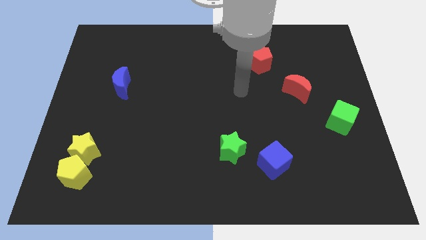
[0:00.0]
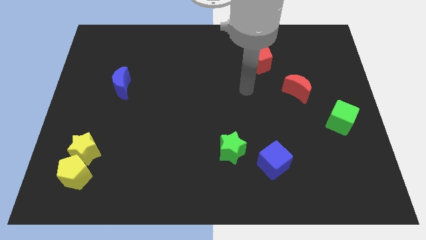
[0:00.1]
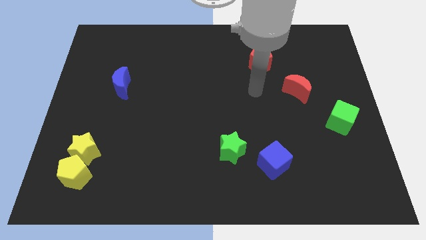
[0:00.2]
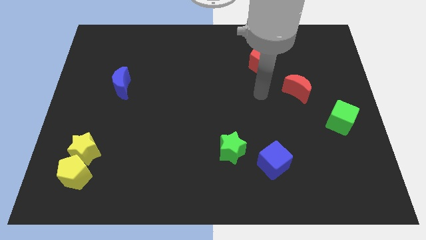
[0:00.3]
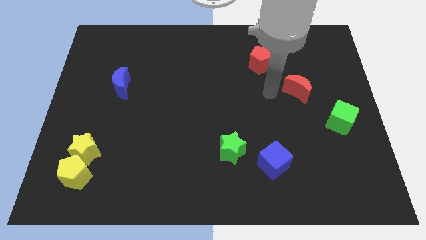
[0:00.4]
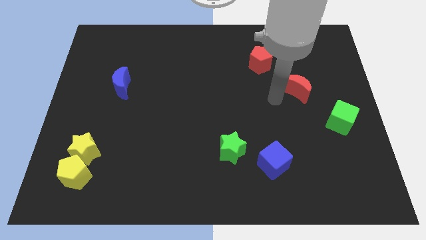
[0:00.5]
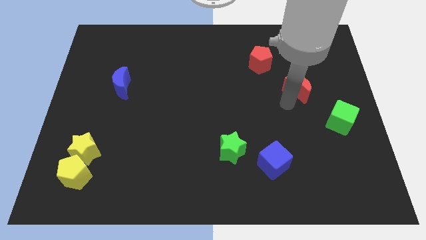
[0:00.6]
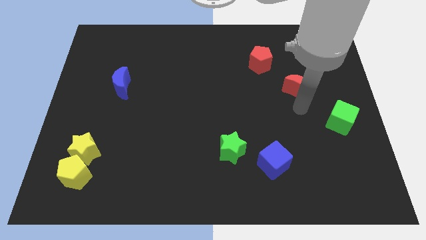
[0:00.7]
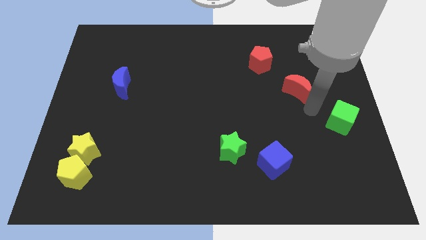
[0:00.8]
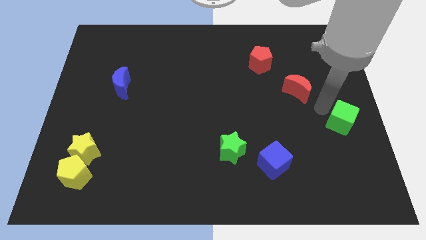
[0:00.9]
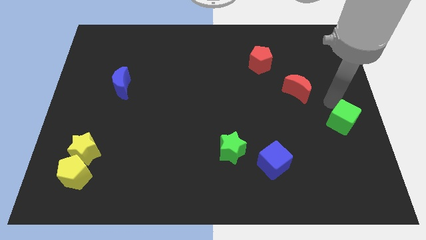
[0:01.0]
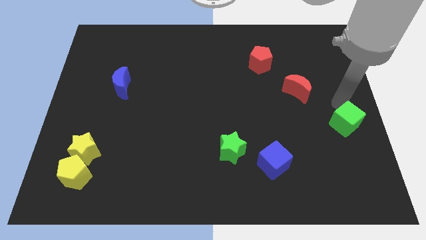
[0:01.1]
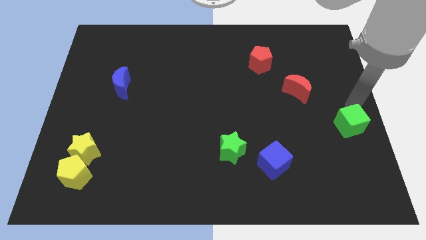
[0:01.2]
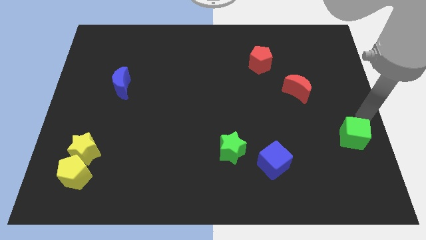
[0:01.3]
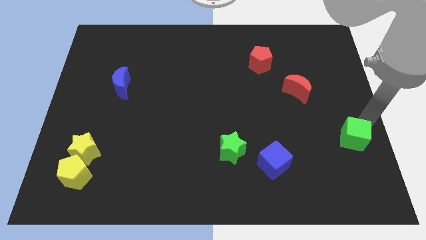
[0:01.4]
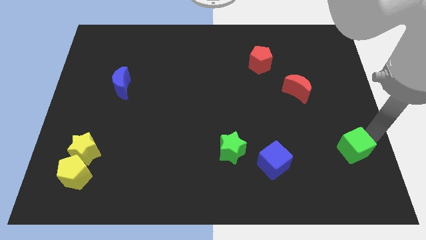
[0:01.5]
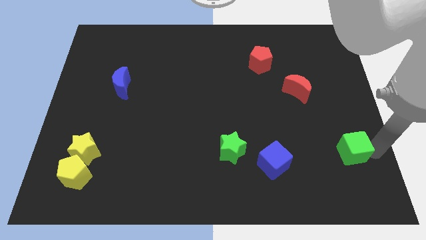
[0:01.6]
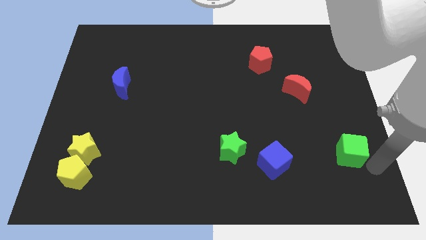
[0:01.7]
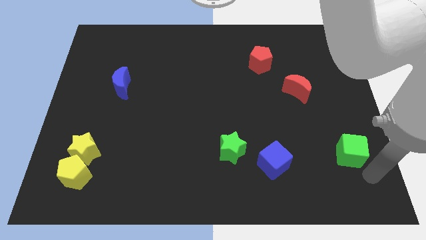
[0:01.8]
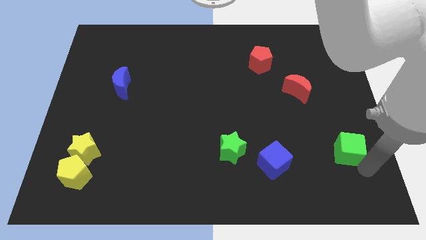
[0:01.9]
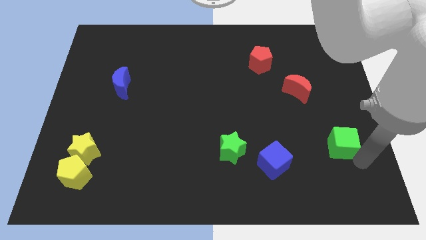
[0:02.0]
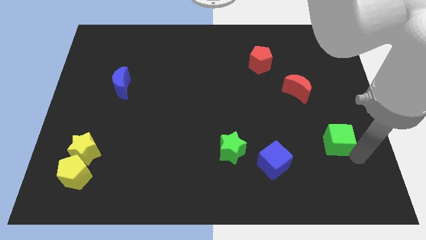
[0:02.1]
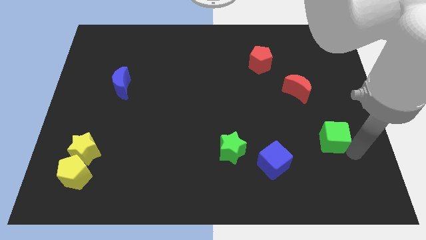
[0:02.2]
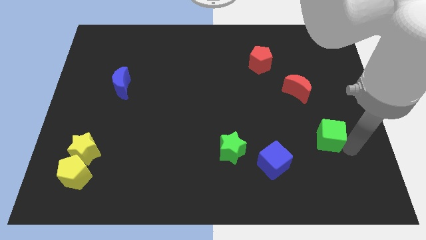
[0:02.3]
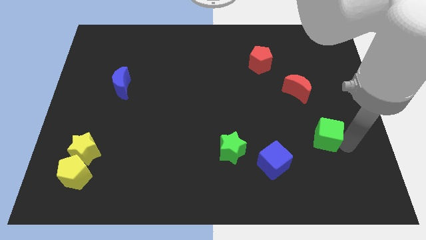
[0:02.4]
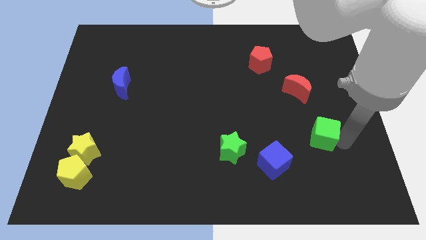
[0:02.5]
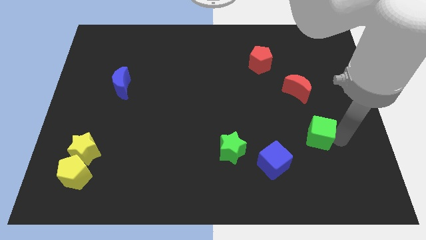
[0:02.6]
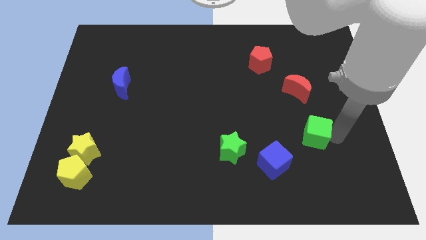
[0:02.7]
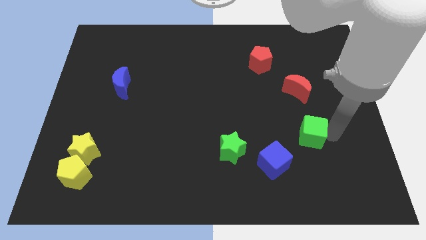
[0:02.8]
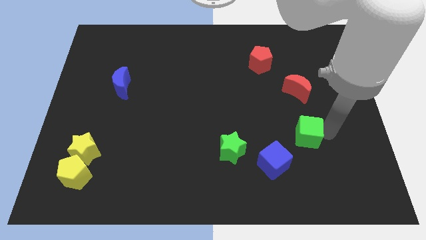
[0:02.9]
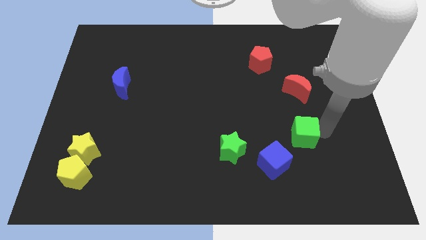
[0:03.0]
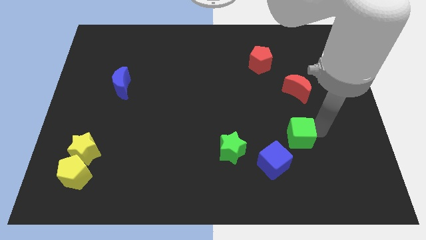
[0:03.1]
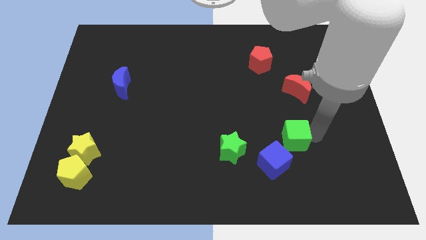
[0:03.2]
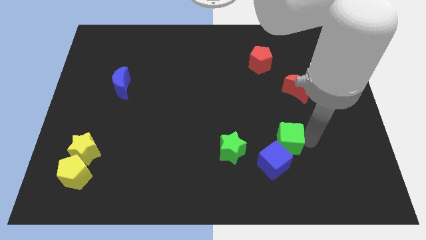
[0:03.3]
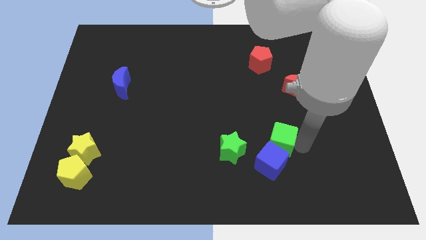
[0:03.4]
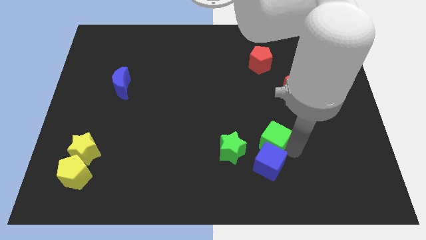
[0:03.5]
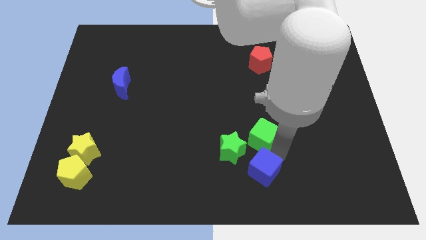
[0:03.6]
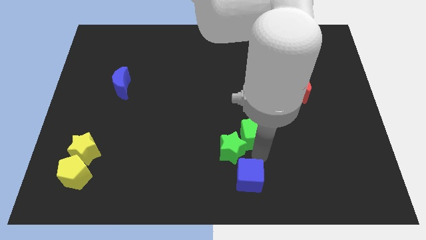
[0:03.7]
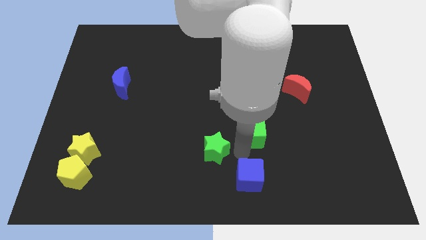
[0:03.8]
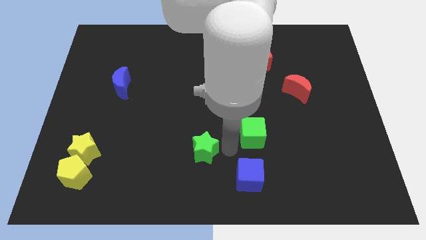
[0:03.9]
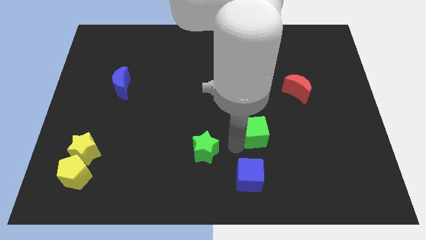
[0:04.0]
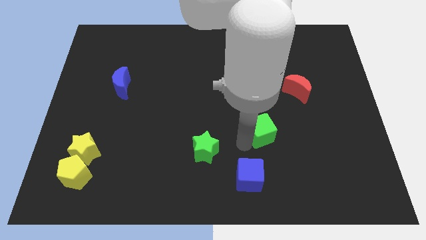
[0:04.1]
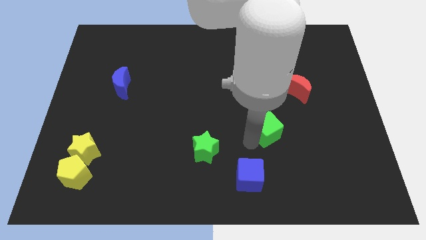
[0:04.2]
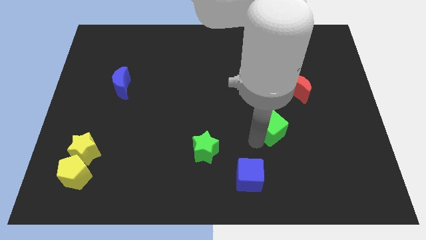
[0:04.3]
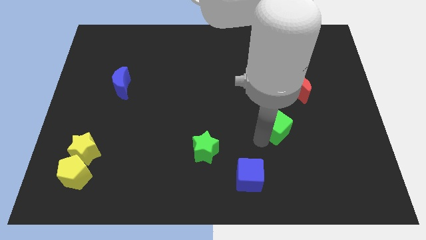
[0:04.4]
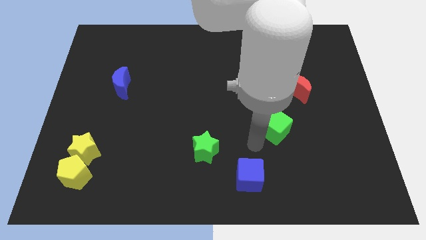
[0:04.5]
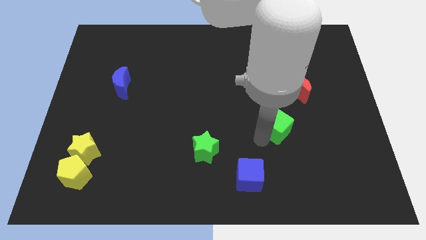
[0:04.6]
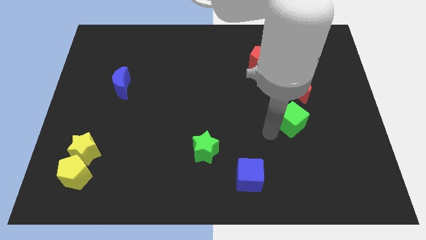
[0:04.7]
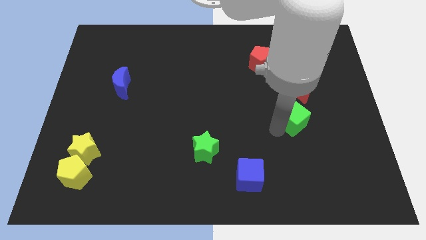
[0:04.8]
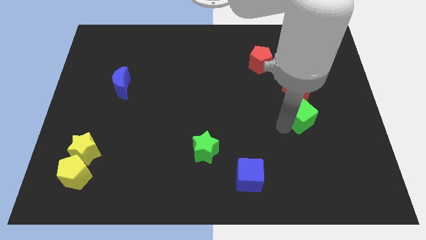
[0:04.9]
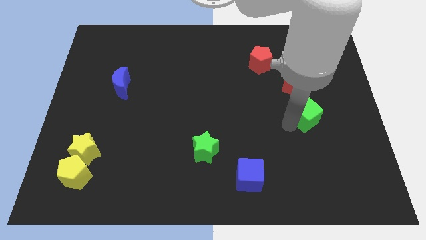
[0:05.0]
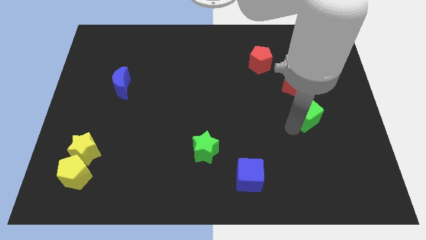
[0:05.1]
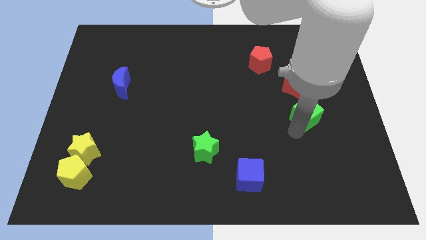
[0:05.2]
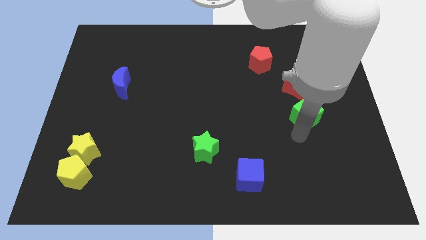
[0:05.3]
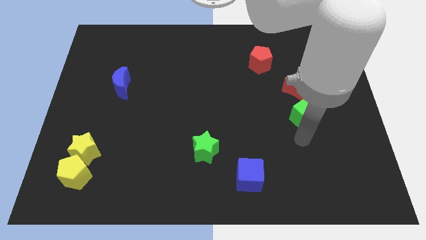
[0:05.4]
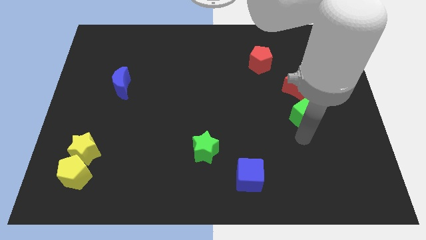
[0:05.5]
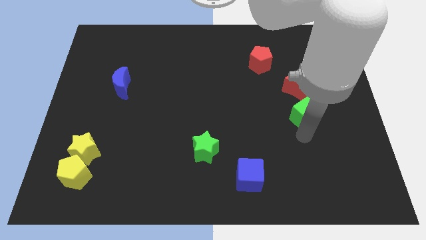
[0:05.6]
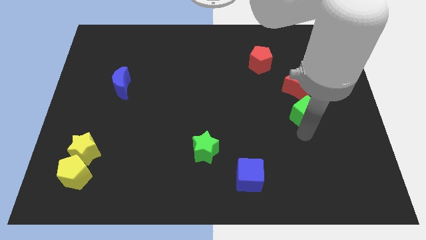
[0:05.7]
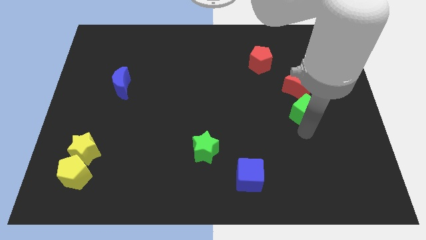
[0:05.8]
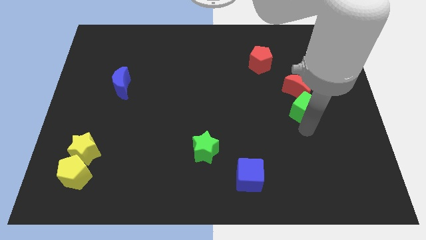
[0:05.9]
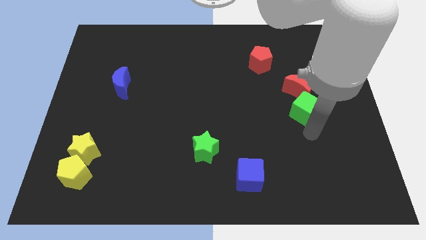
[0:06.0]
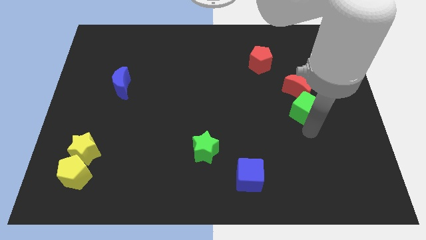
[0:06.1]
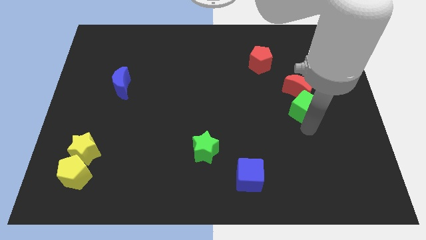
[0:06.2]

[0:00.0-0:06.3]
put the green cube towards the red moon

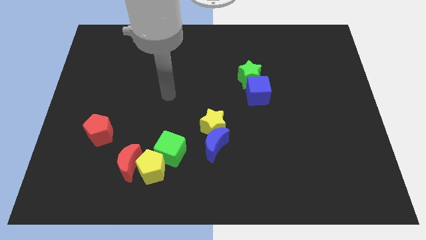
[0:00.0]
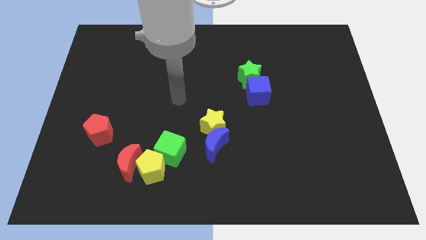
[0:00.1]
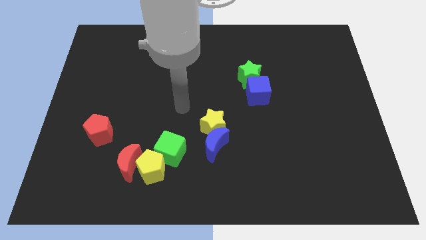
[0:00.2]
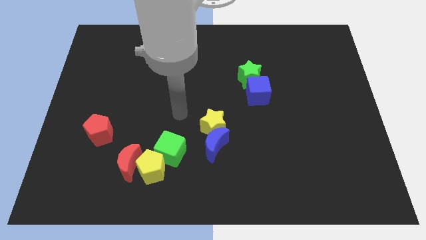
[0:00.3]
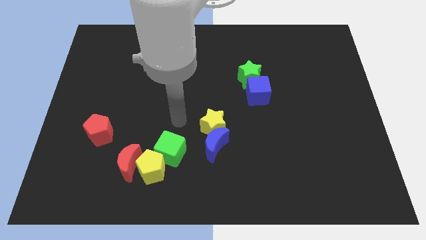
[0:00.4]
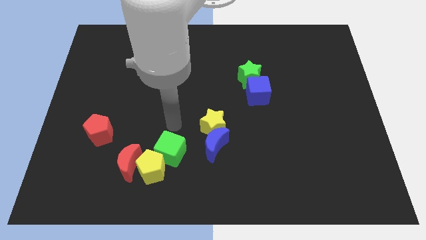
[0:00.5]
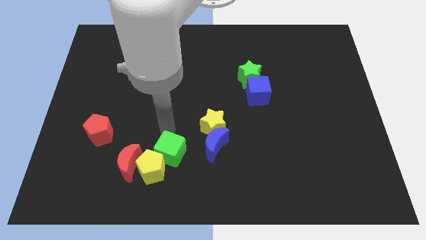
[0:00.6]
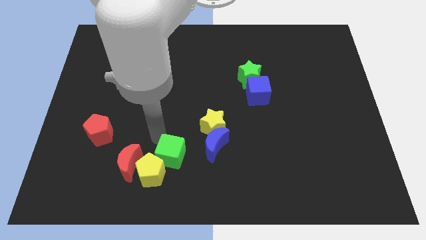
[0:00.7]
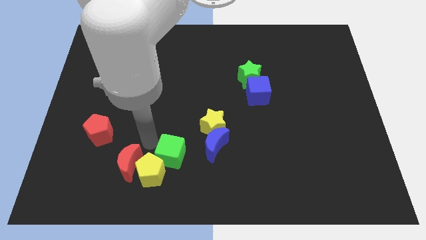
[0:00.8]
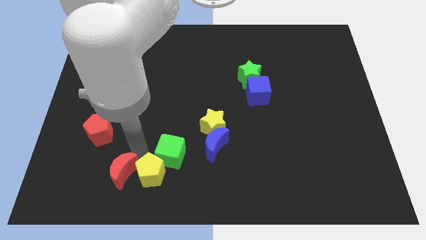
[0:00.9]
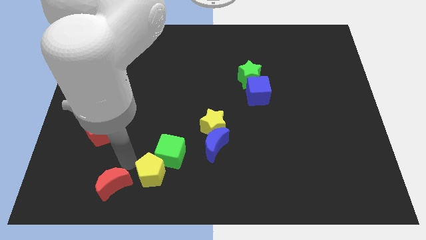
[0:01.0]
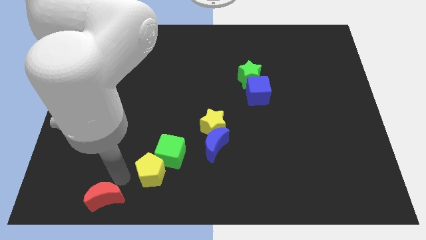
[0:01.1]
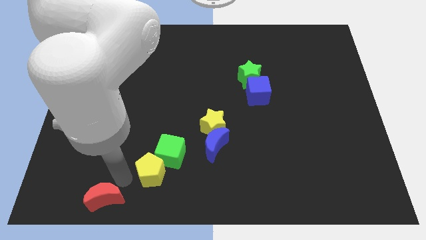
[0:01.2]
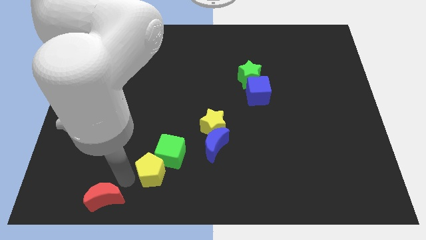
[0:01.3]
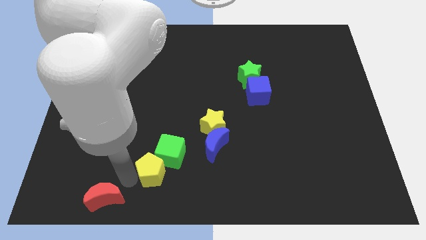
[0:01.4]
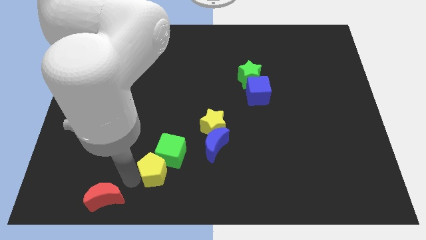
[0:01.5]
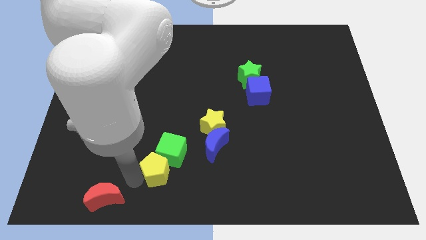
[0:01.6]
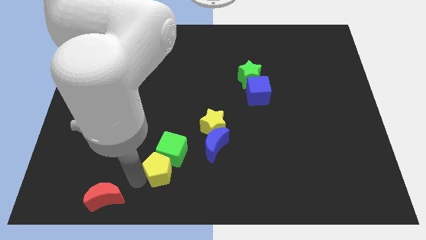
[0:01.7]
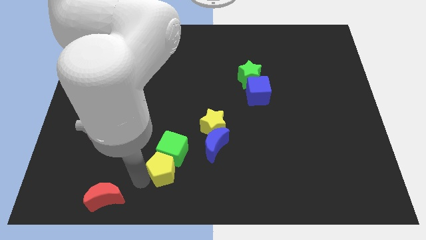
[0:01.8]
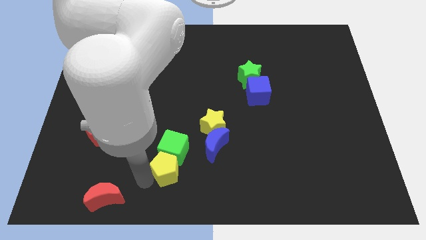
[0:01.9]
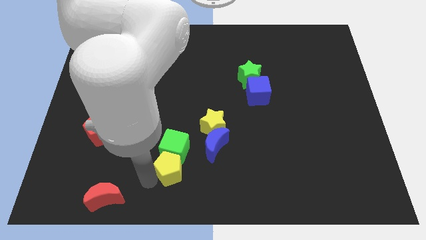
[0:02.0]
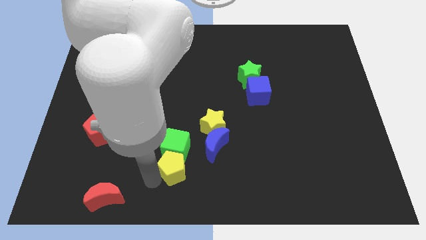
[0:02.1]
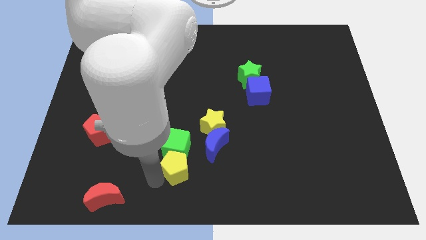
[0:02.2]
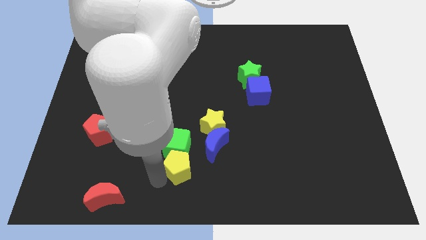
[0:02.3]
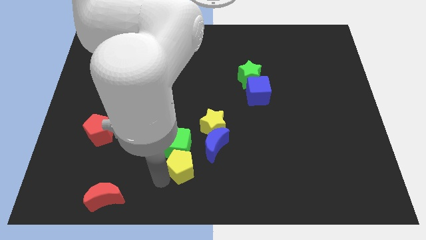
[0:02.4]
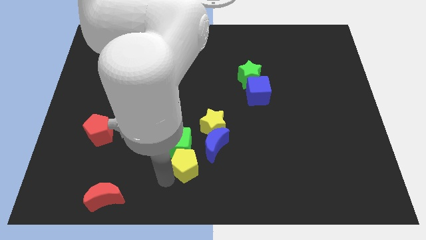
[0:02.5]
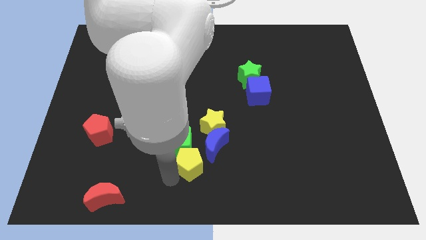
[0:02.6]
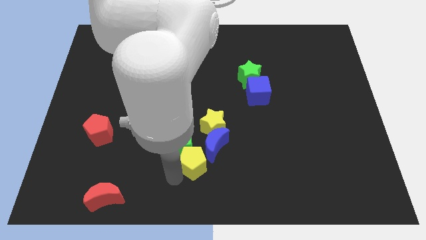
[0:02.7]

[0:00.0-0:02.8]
slide the yellow pentagon to the blue moon
